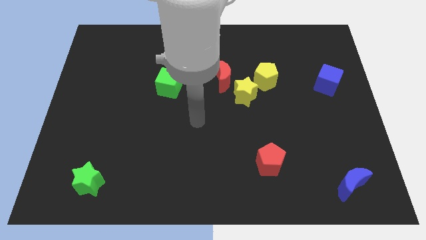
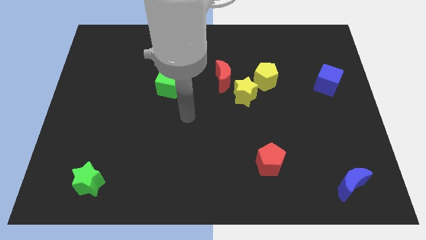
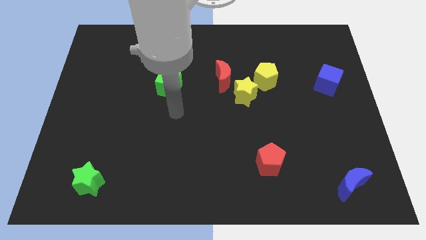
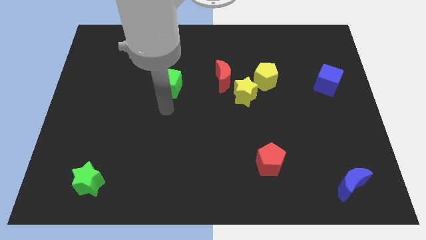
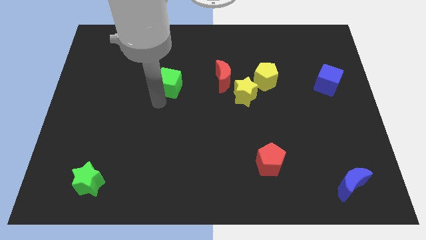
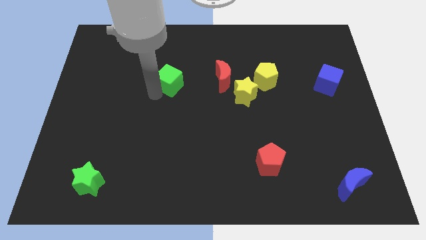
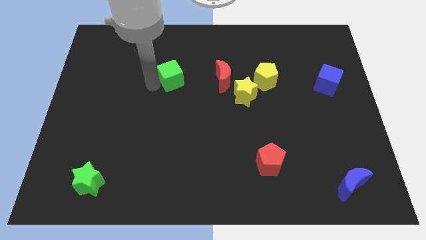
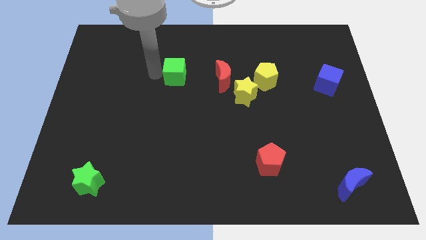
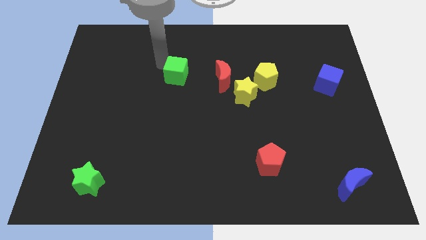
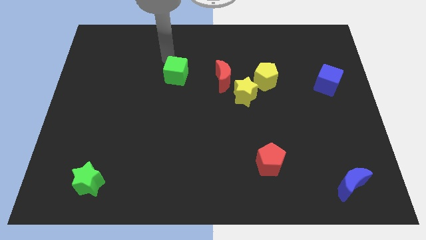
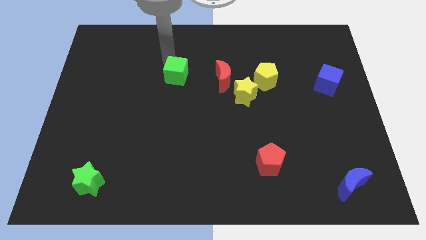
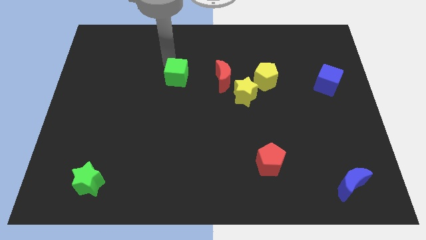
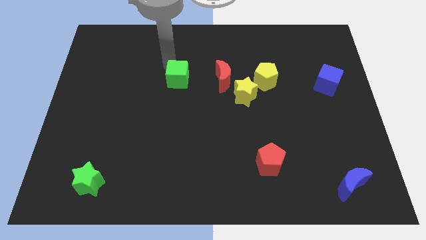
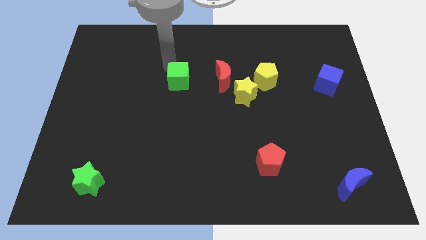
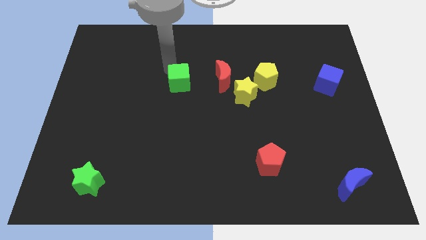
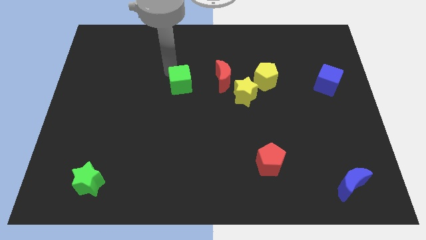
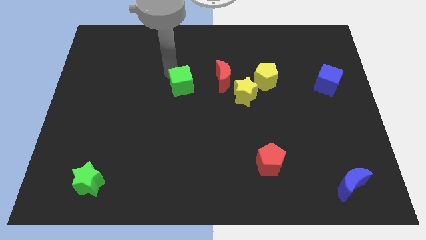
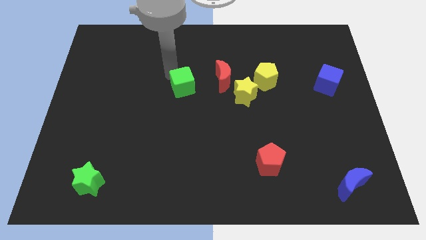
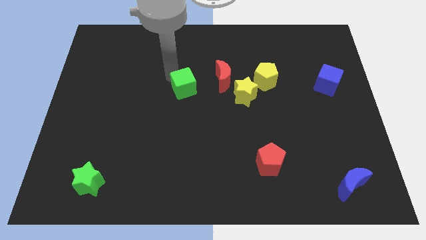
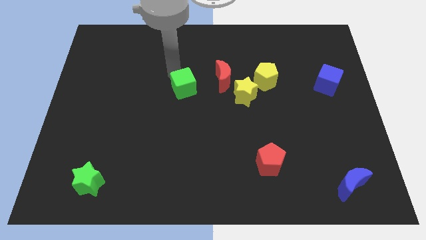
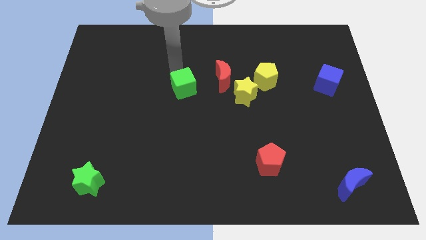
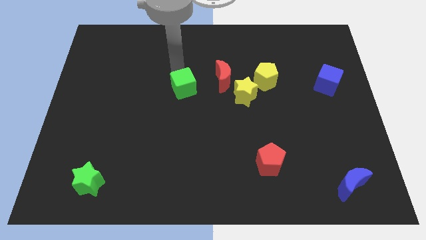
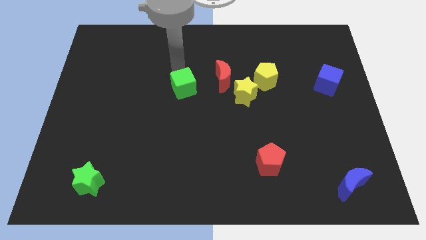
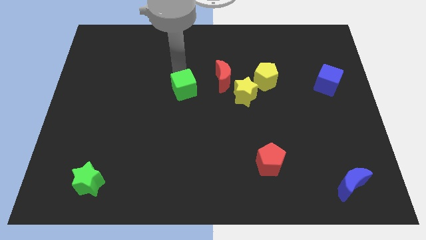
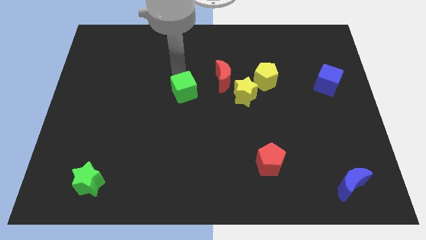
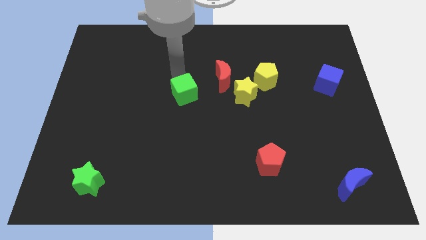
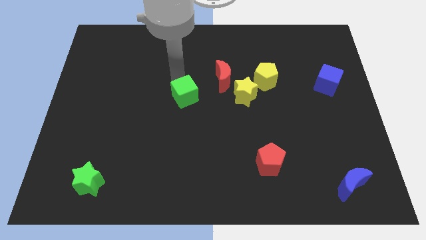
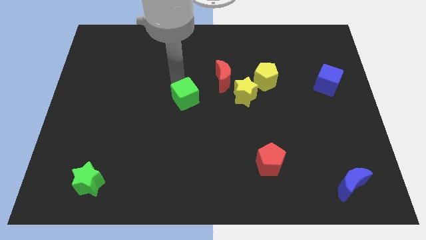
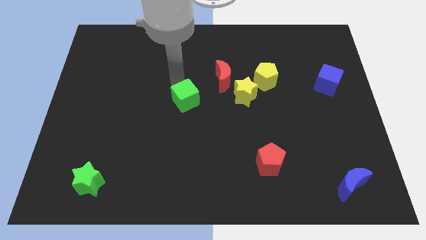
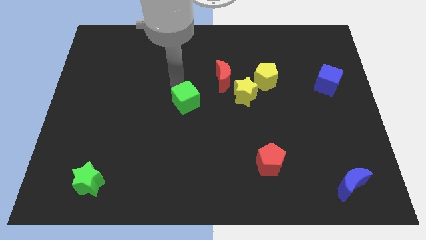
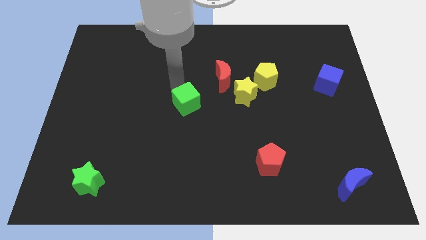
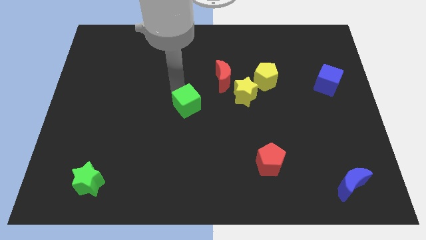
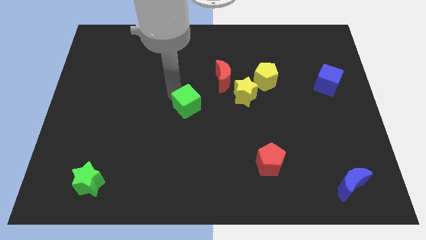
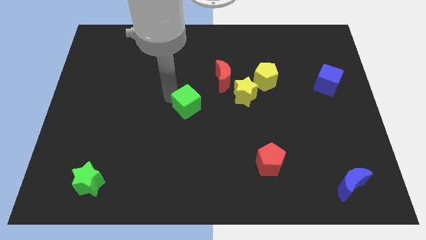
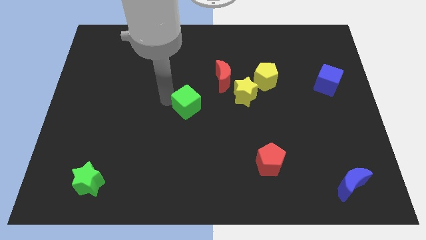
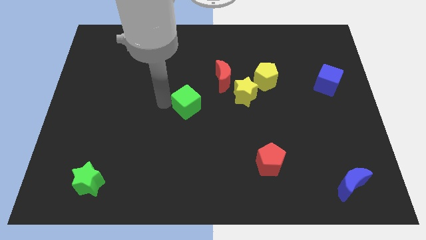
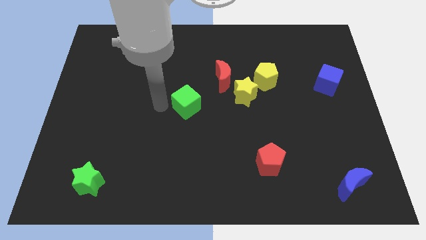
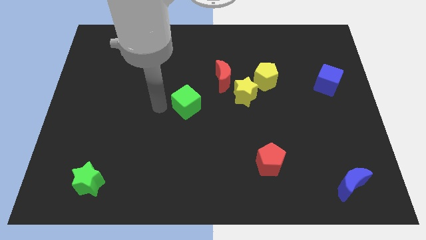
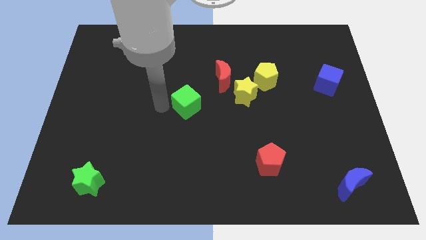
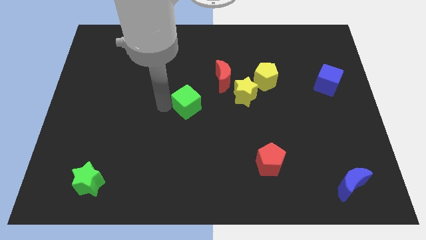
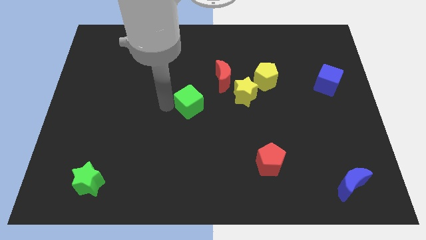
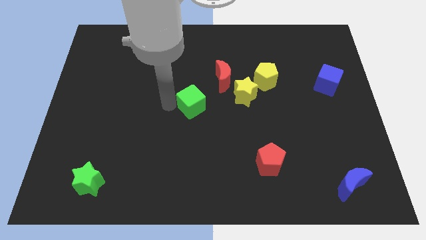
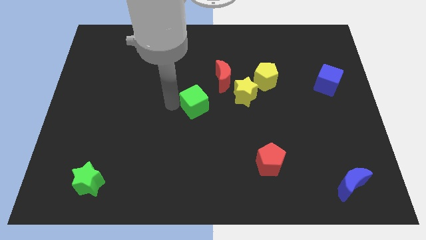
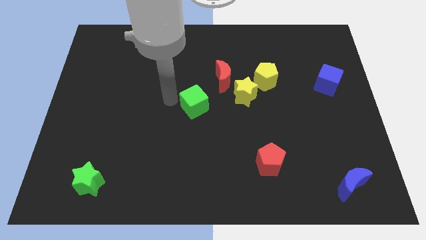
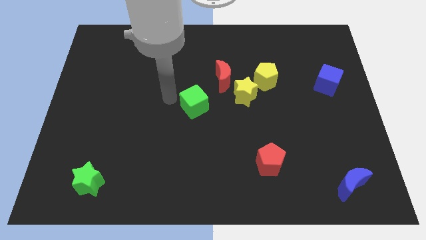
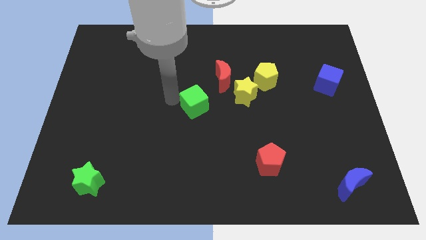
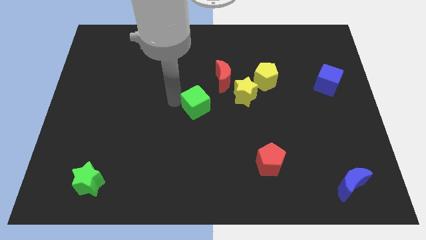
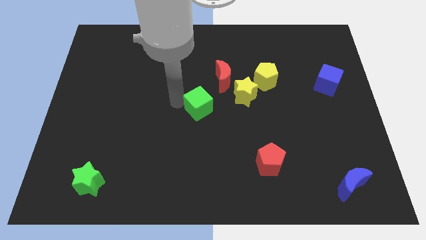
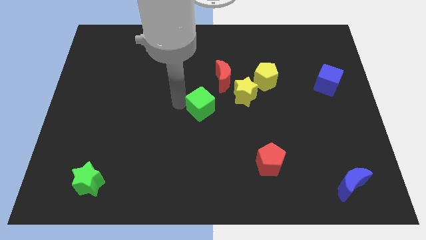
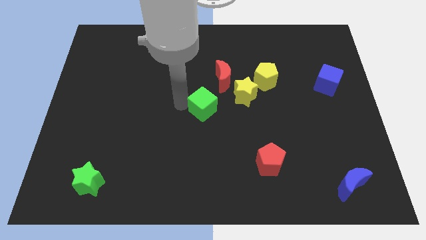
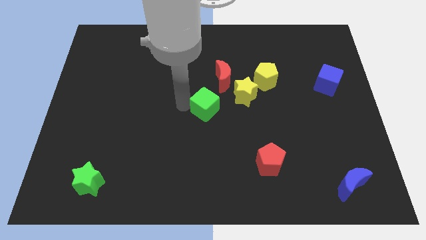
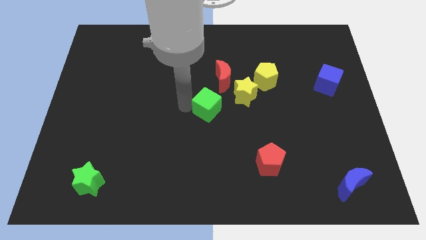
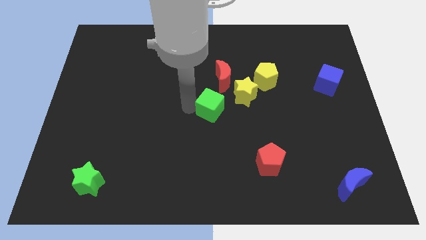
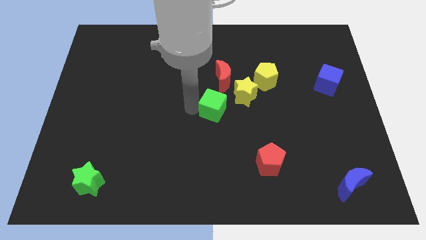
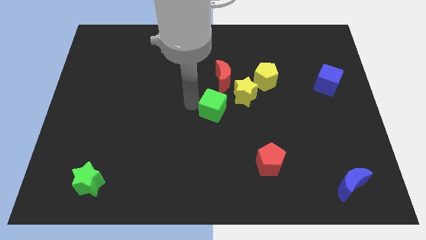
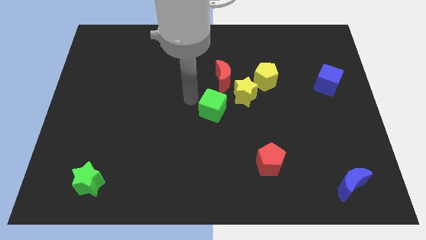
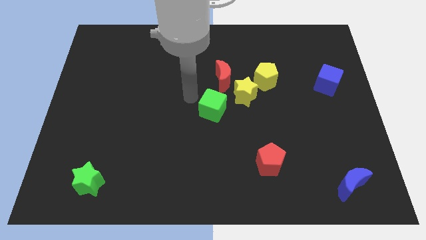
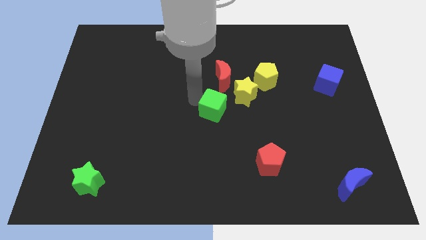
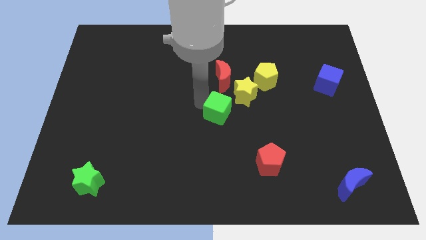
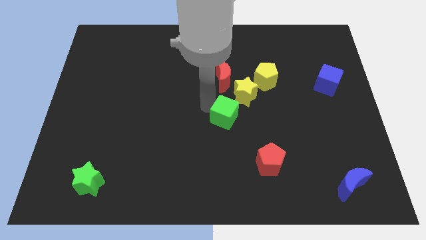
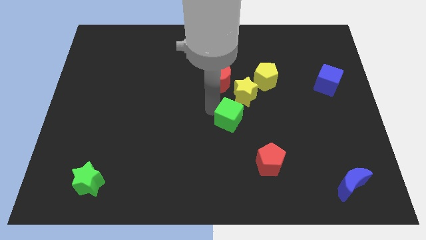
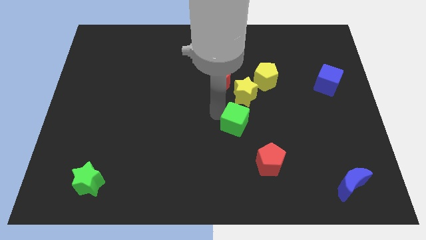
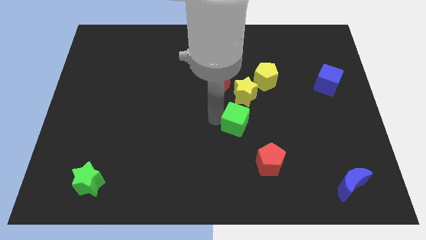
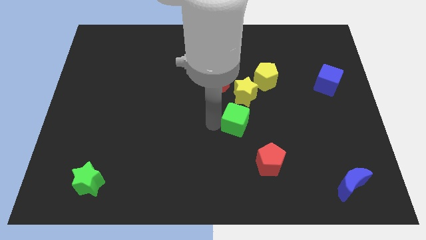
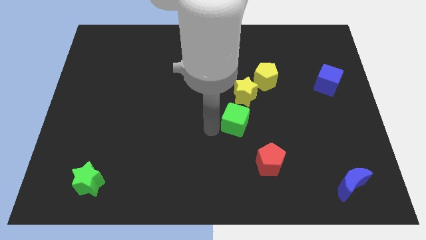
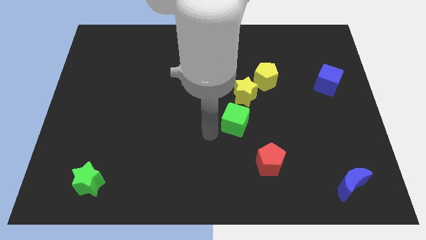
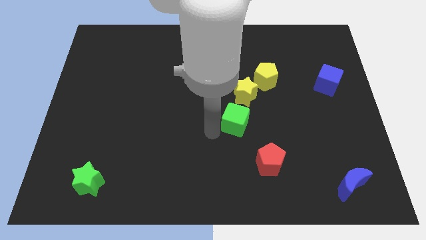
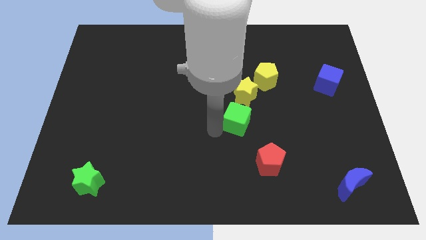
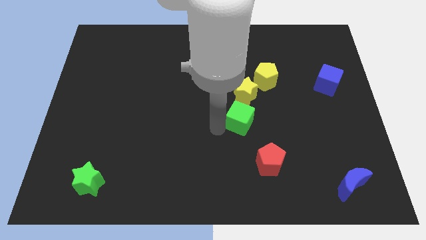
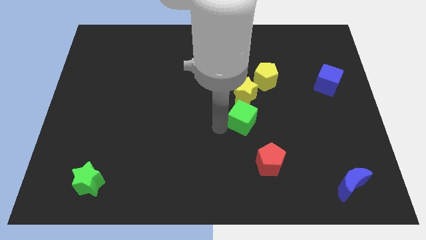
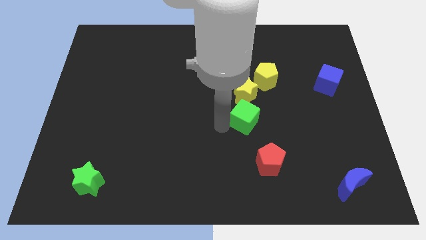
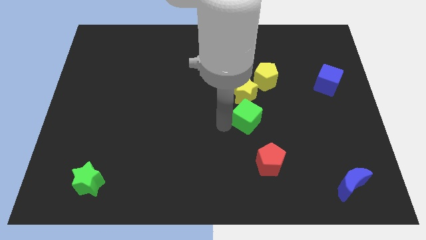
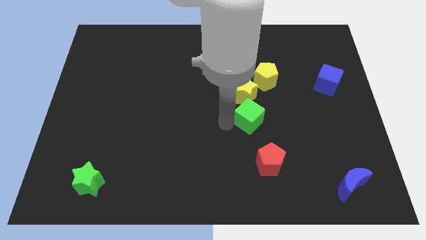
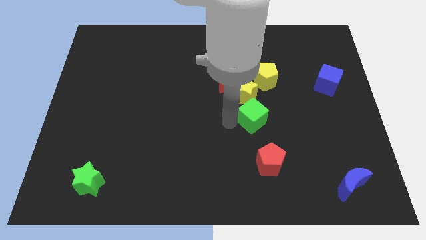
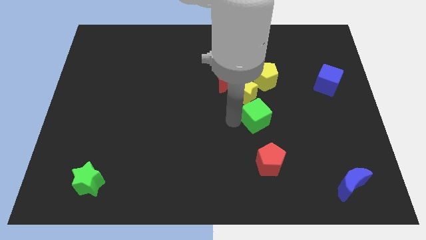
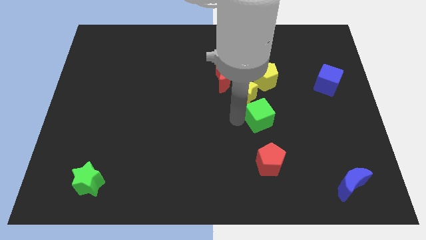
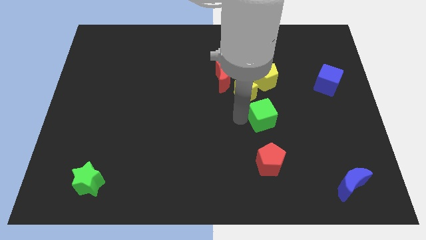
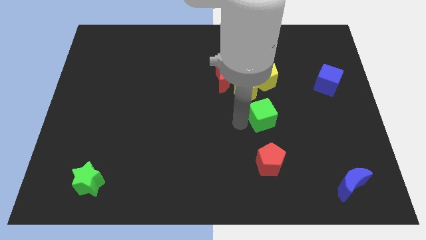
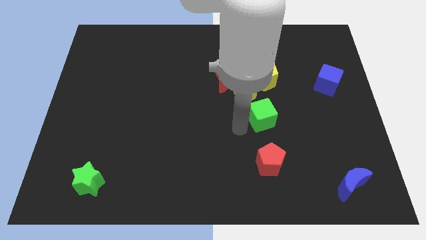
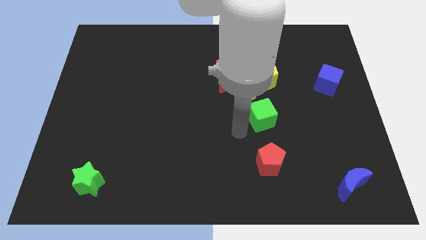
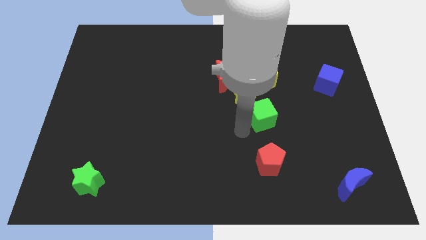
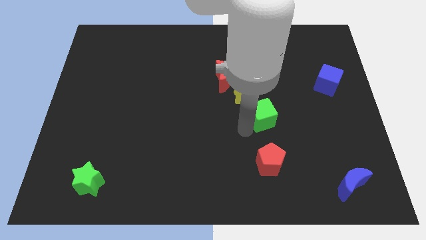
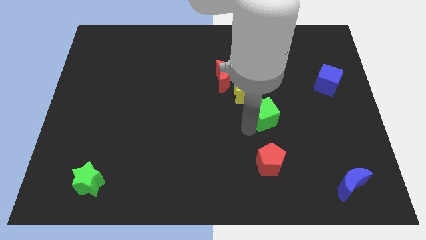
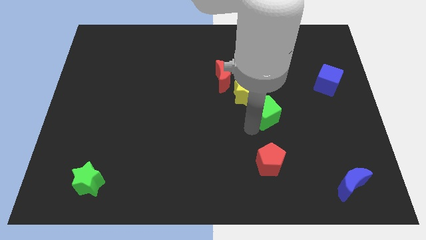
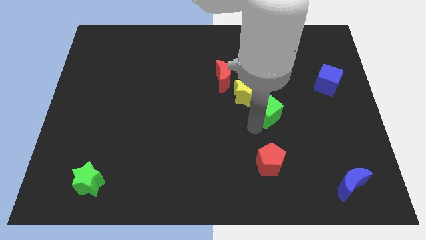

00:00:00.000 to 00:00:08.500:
push the green cube right

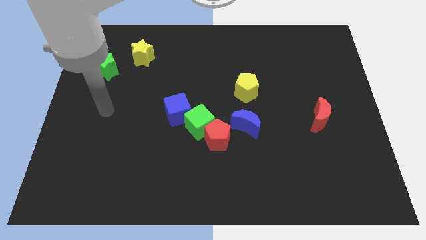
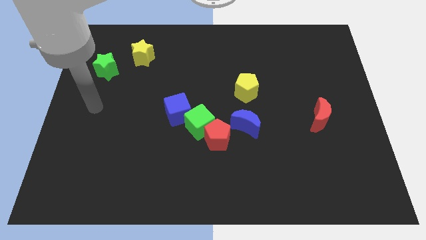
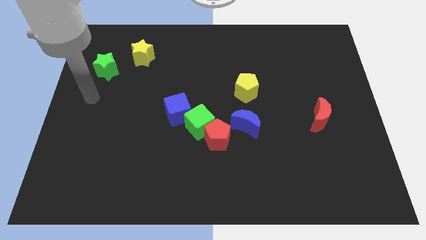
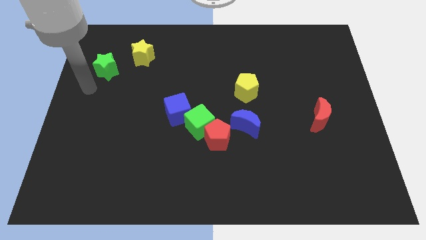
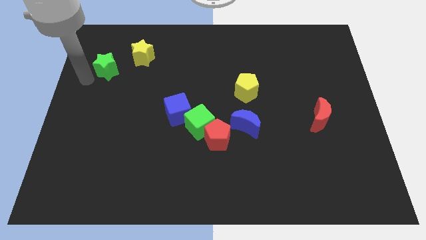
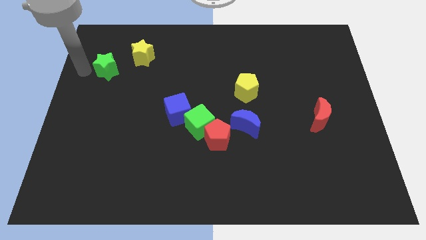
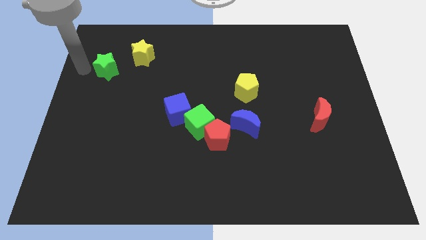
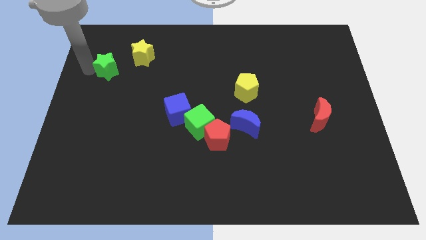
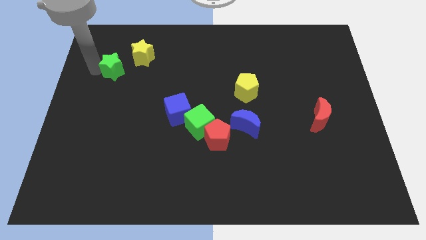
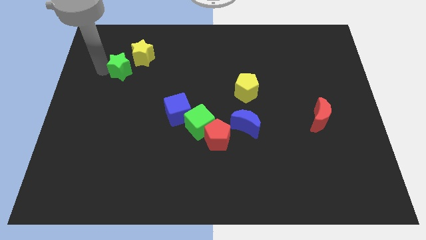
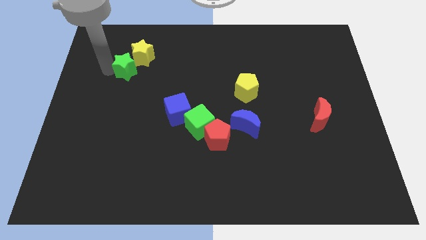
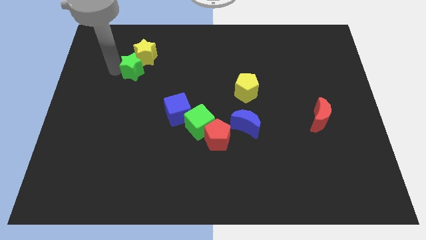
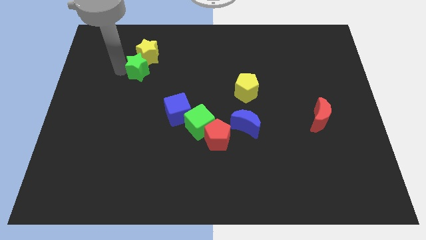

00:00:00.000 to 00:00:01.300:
slide the green star a little bit to the right
